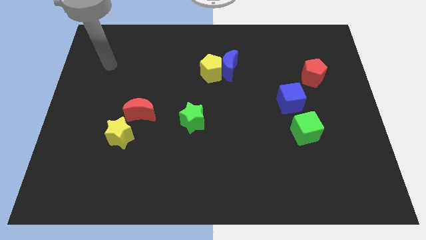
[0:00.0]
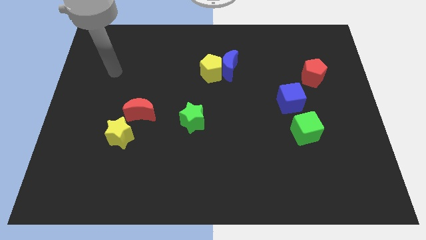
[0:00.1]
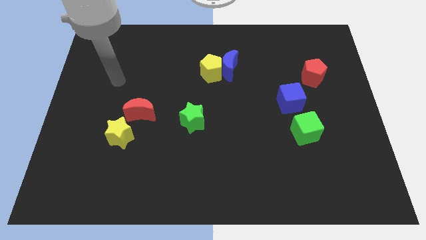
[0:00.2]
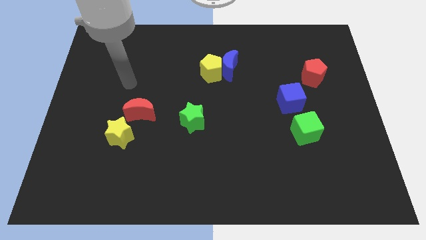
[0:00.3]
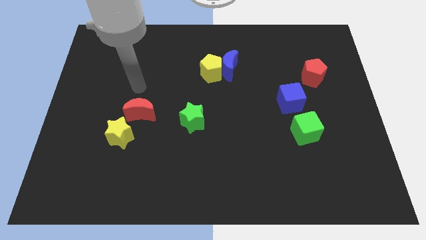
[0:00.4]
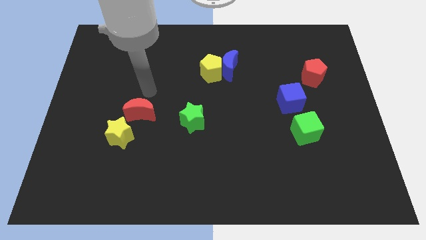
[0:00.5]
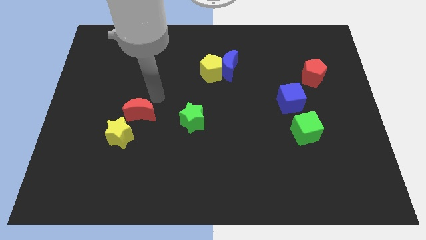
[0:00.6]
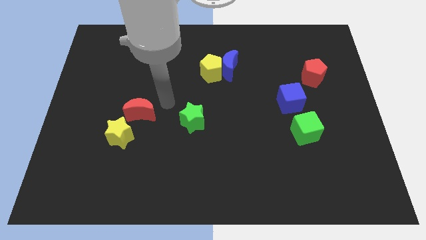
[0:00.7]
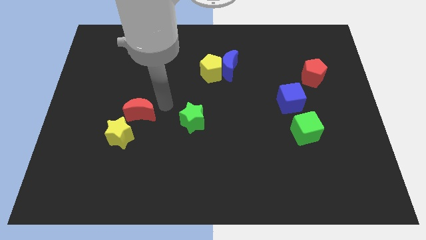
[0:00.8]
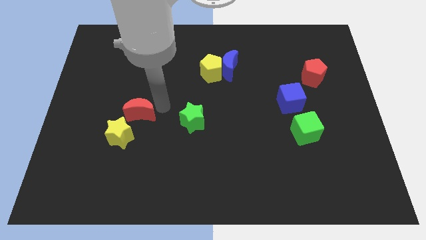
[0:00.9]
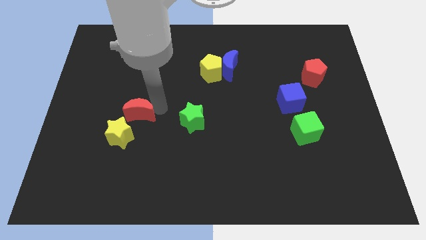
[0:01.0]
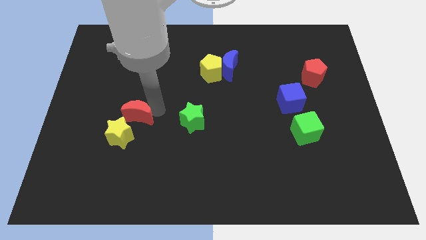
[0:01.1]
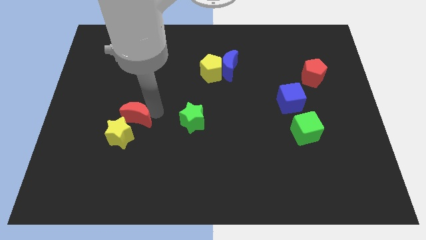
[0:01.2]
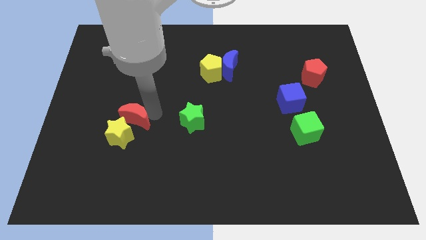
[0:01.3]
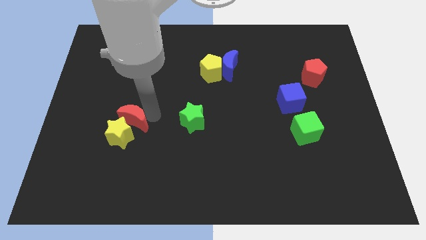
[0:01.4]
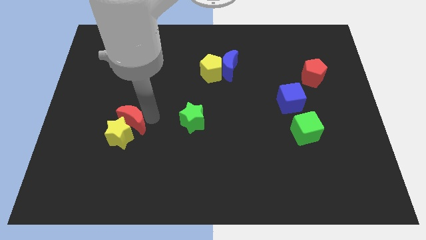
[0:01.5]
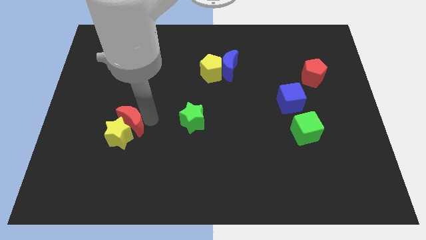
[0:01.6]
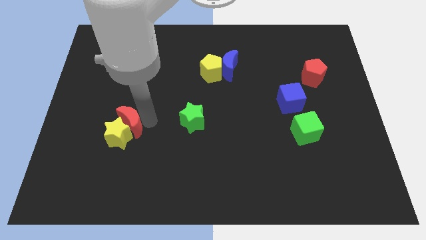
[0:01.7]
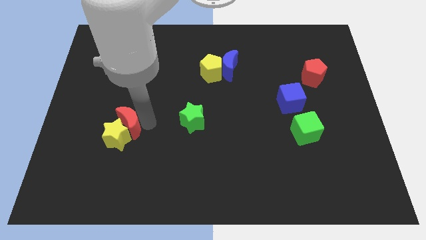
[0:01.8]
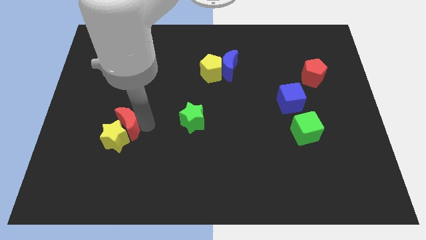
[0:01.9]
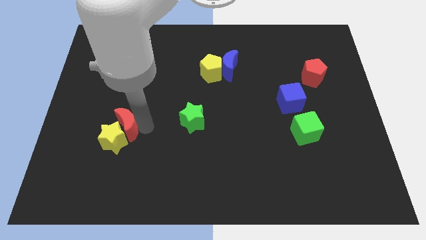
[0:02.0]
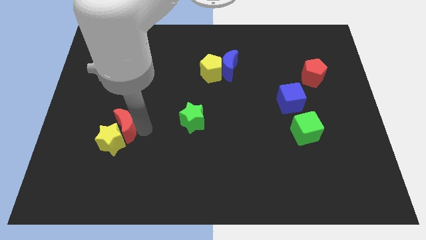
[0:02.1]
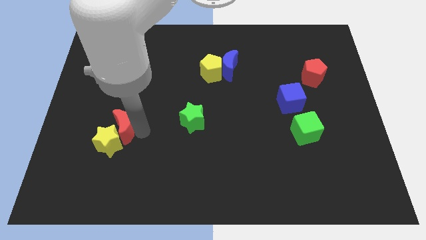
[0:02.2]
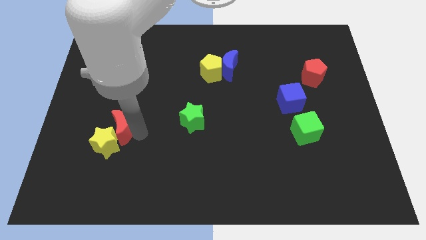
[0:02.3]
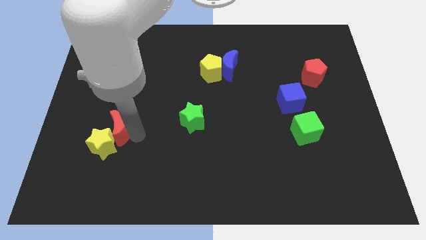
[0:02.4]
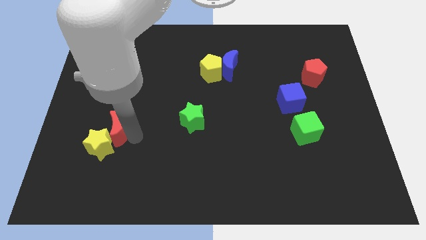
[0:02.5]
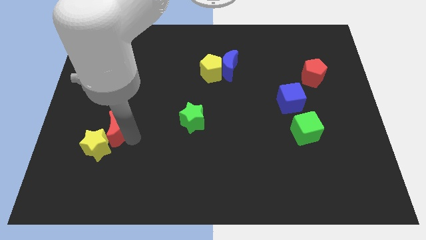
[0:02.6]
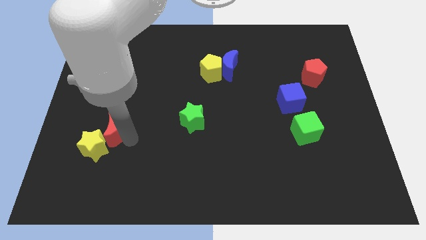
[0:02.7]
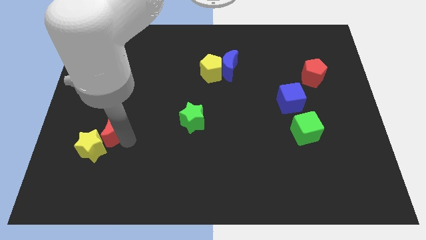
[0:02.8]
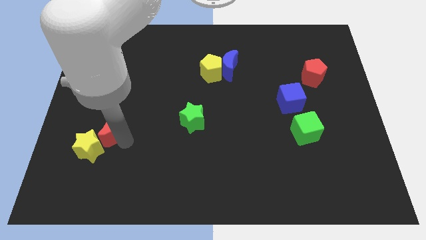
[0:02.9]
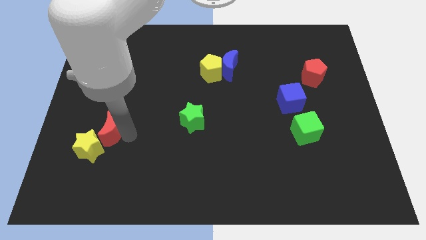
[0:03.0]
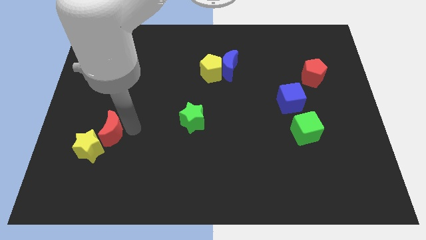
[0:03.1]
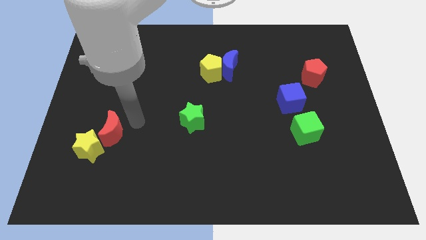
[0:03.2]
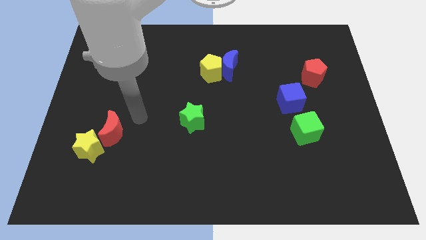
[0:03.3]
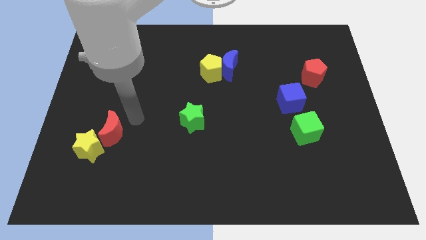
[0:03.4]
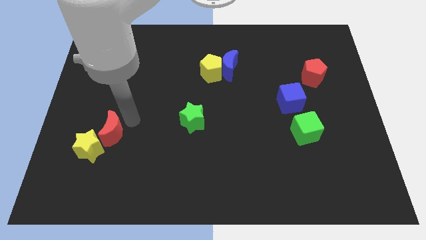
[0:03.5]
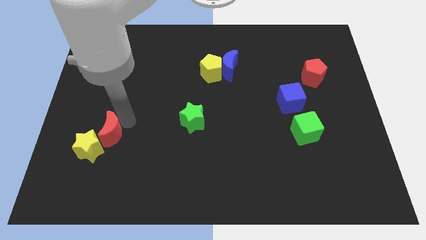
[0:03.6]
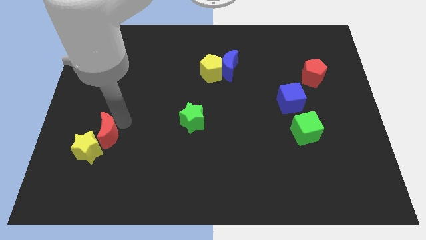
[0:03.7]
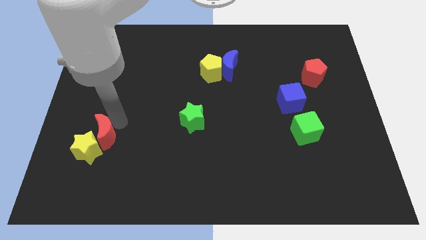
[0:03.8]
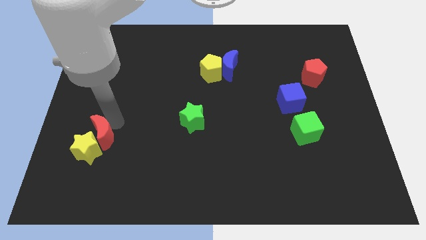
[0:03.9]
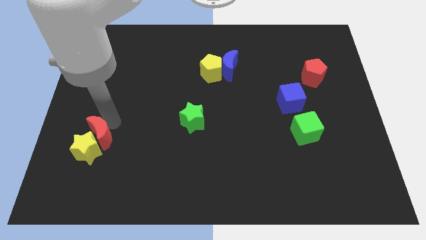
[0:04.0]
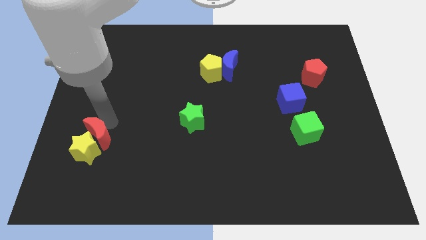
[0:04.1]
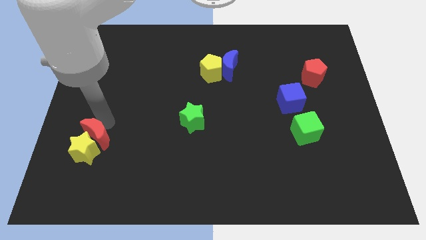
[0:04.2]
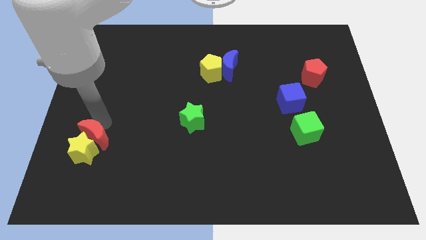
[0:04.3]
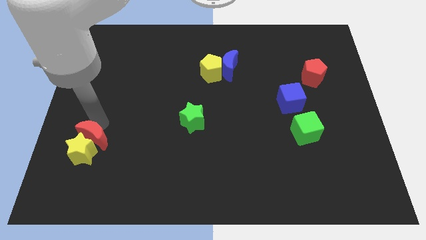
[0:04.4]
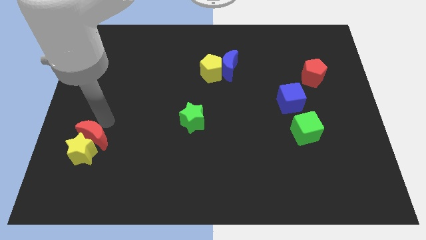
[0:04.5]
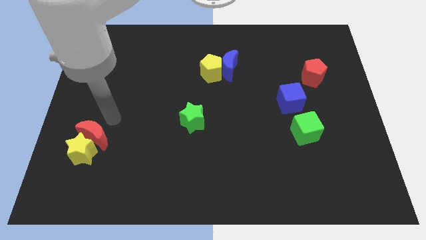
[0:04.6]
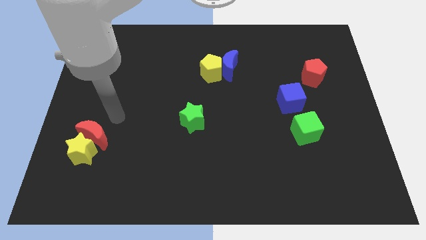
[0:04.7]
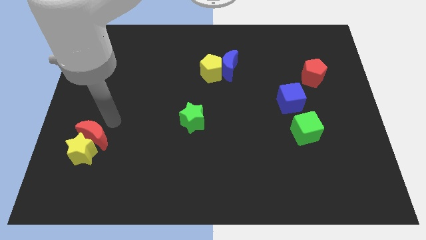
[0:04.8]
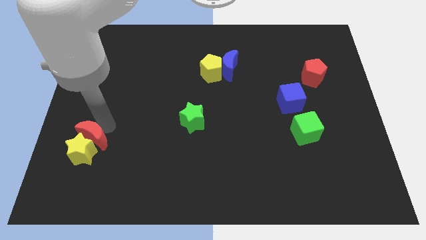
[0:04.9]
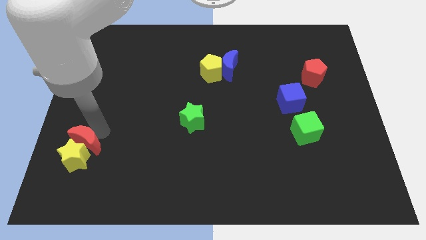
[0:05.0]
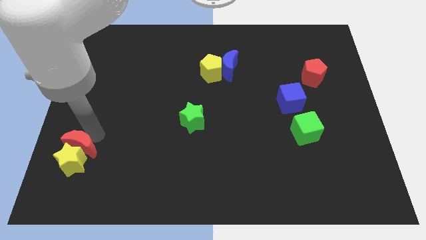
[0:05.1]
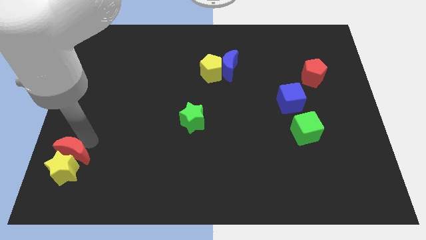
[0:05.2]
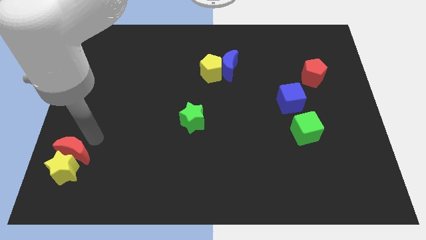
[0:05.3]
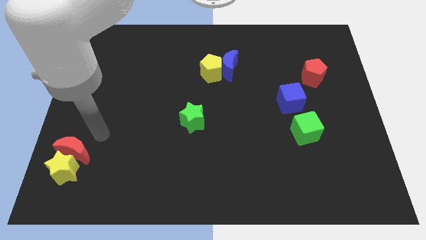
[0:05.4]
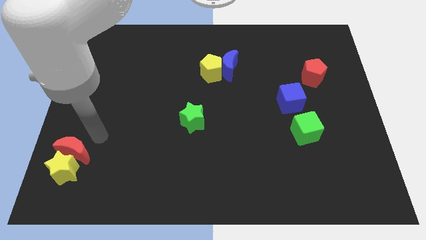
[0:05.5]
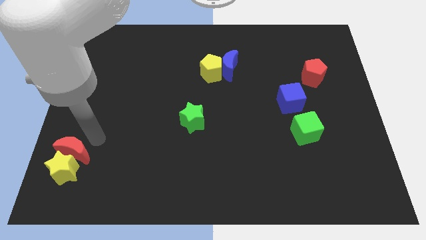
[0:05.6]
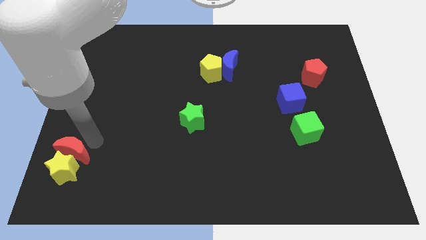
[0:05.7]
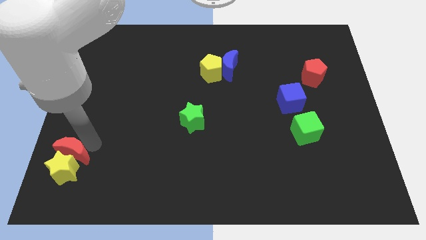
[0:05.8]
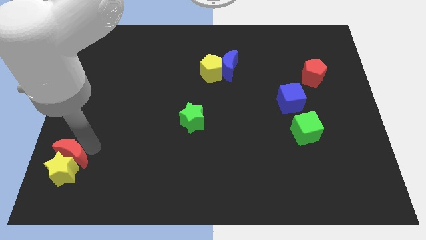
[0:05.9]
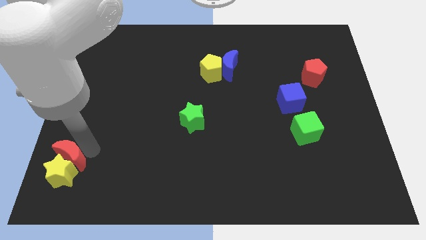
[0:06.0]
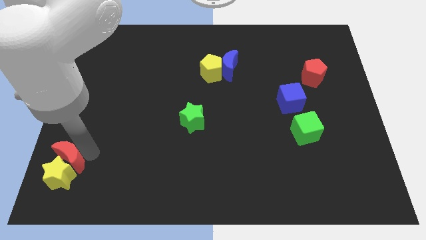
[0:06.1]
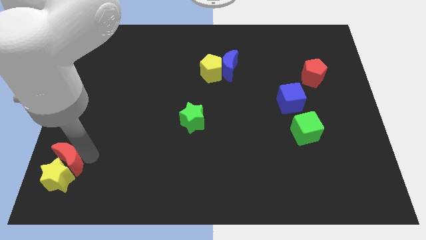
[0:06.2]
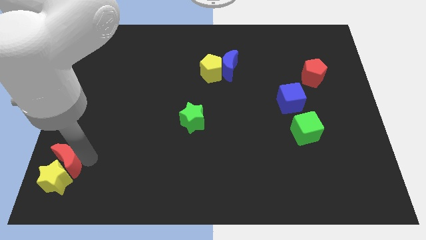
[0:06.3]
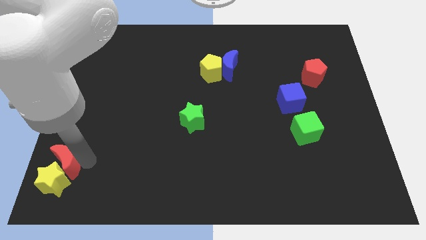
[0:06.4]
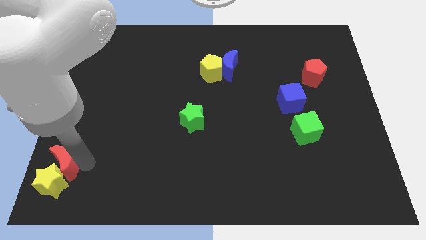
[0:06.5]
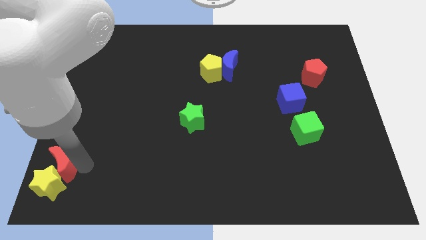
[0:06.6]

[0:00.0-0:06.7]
move the red moon to the bottom left corner
